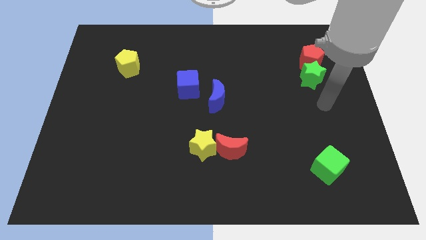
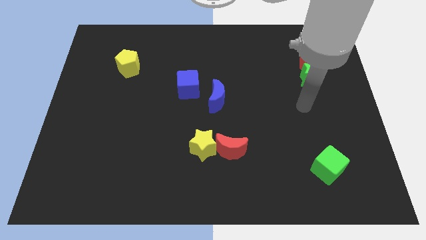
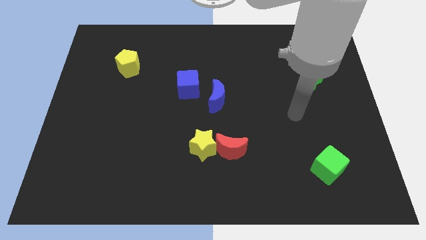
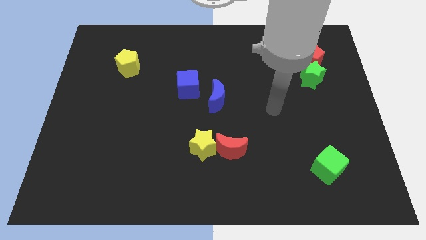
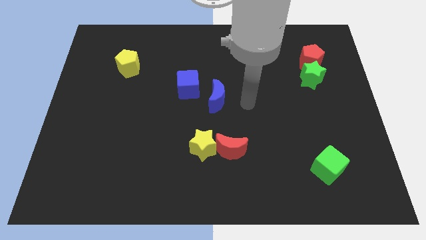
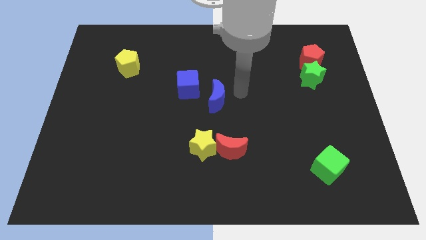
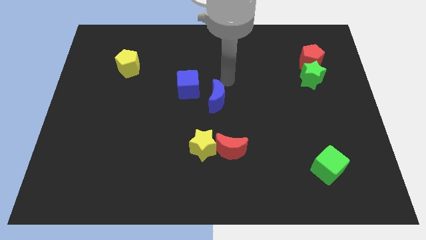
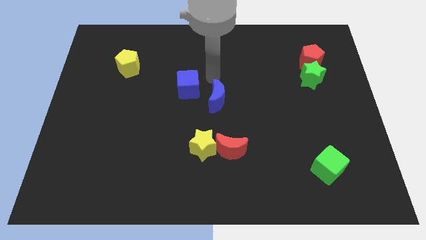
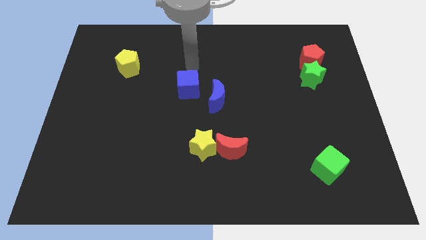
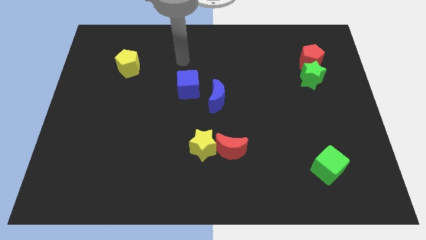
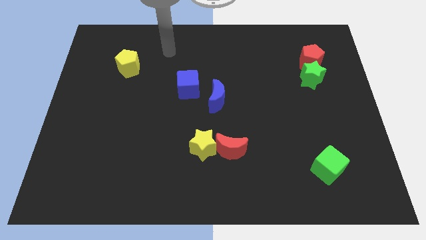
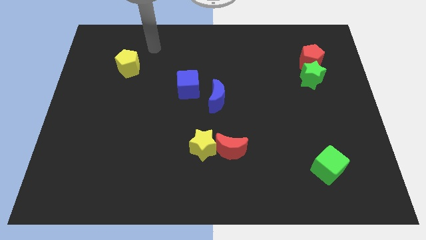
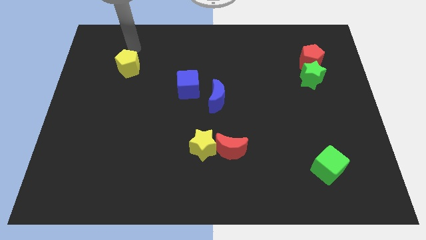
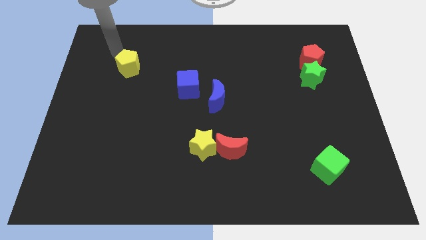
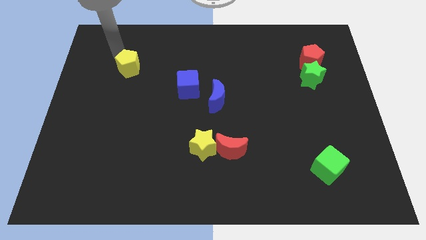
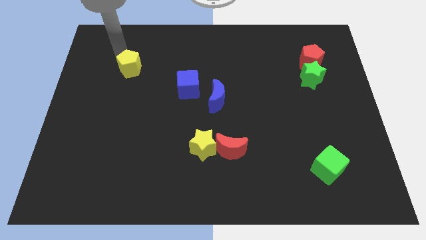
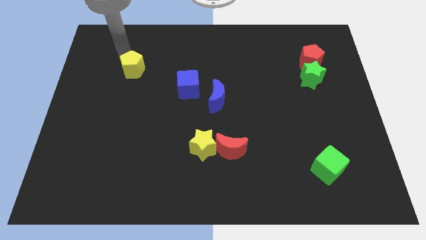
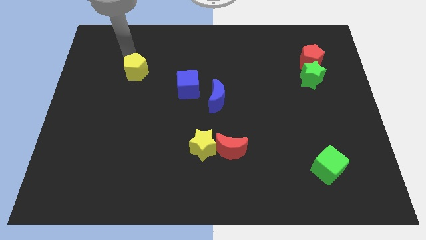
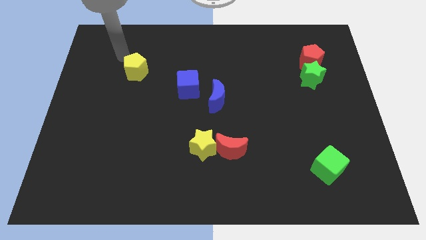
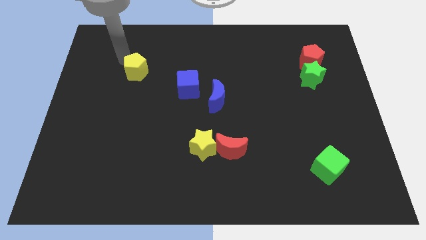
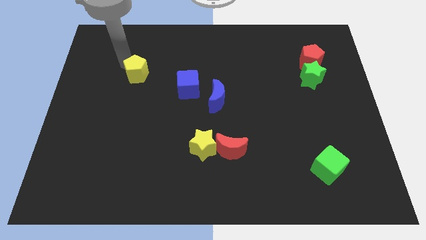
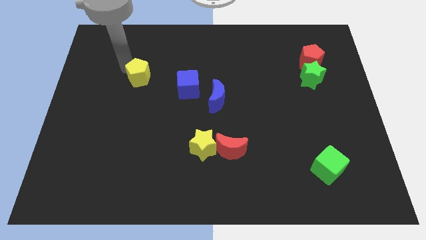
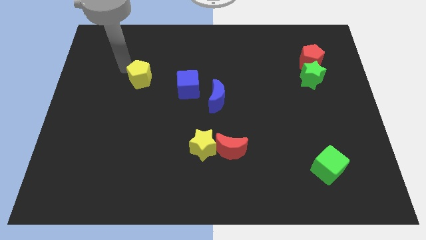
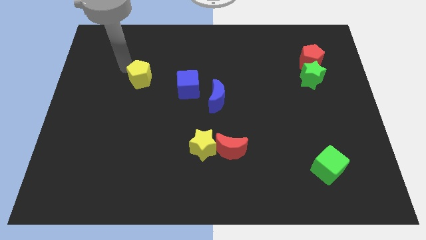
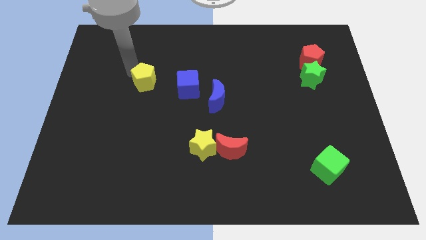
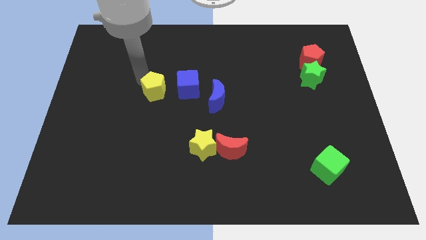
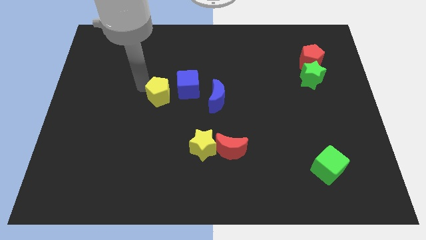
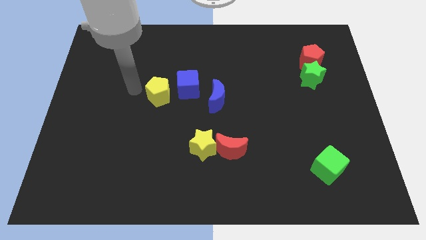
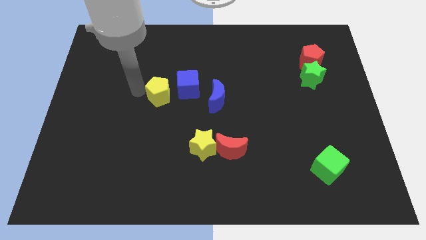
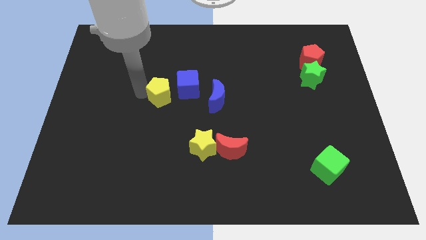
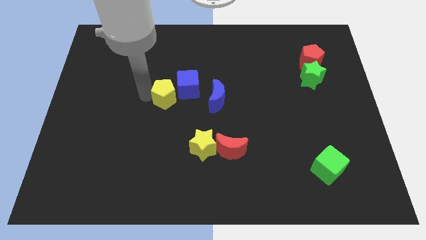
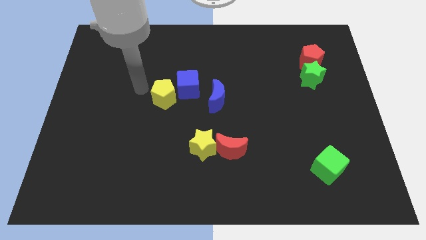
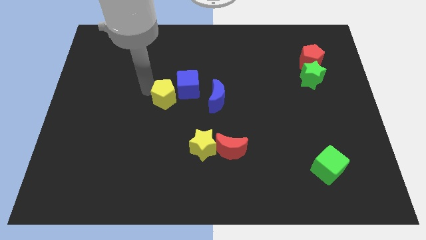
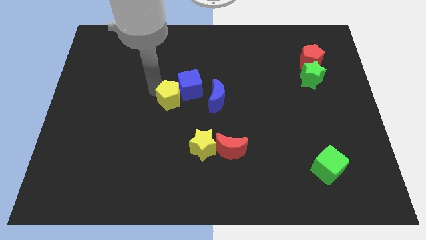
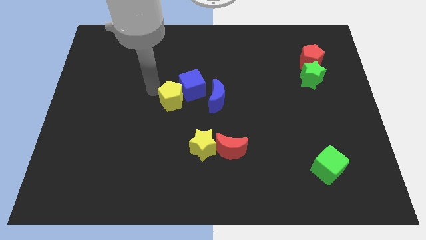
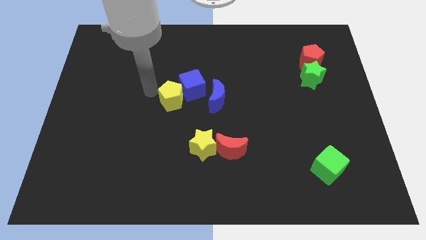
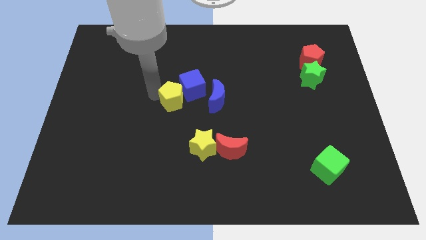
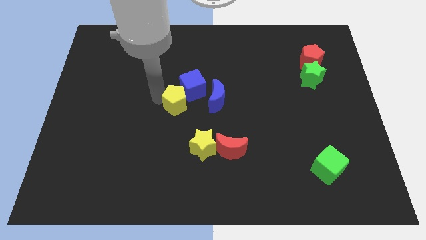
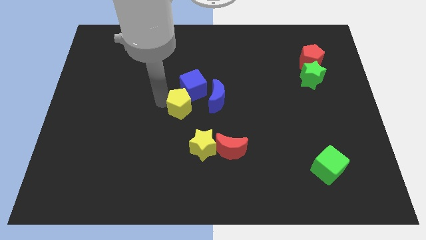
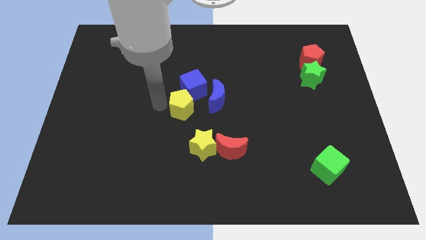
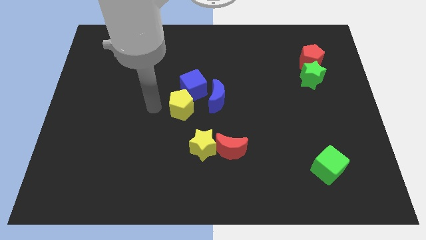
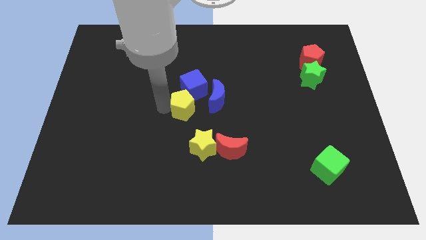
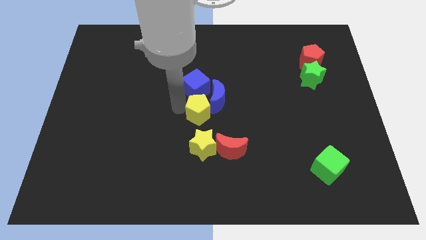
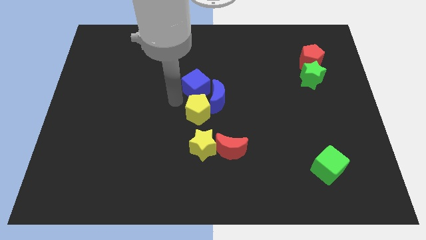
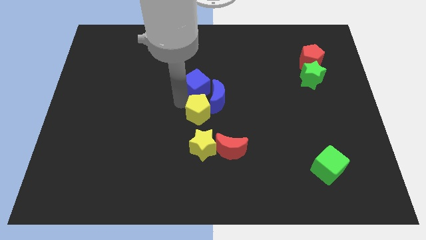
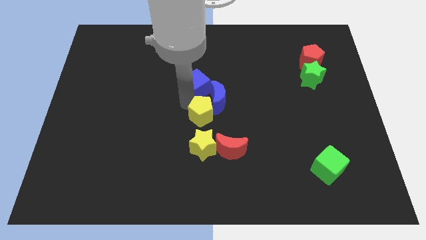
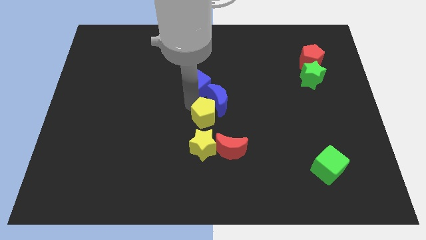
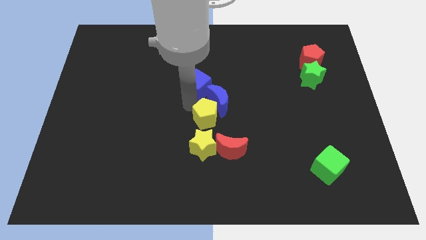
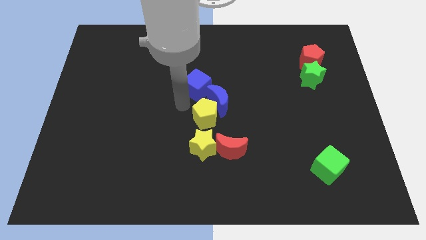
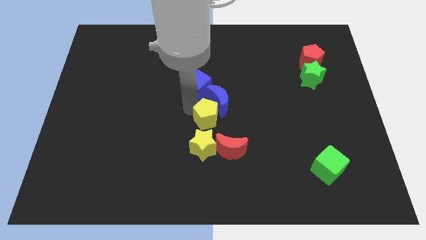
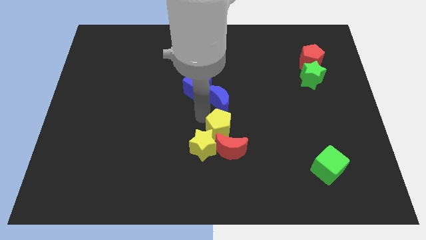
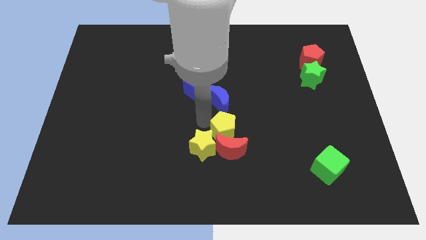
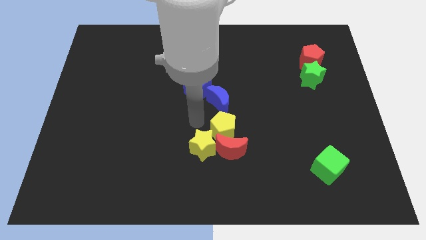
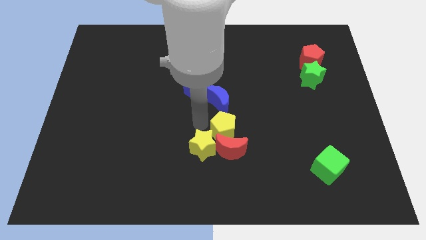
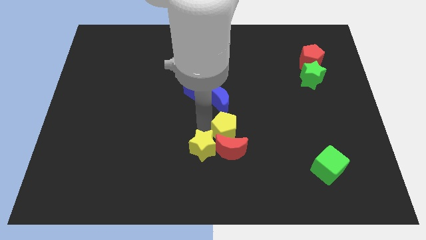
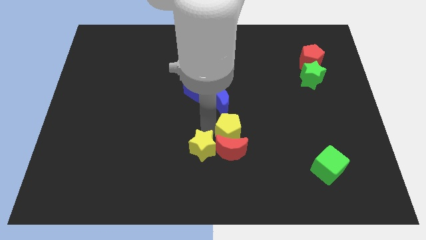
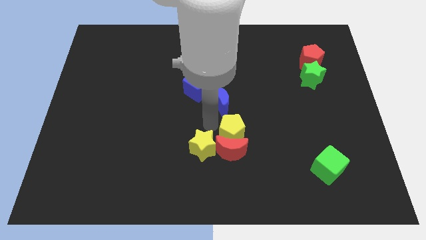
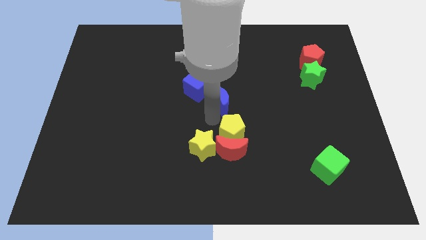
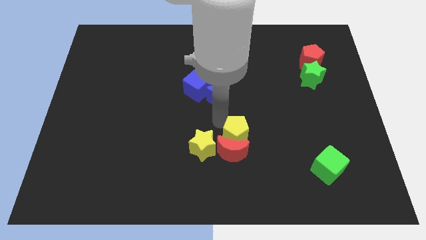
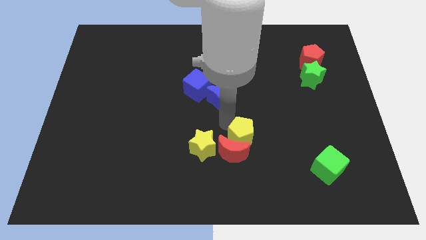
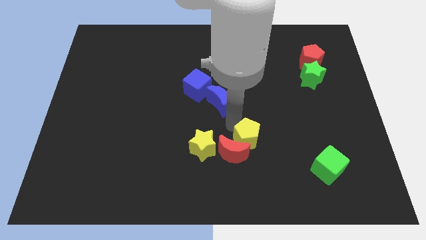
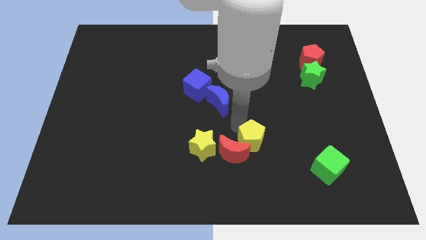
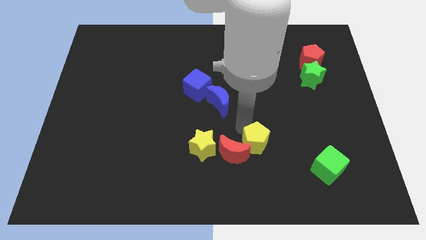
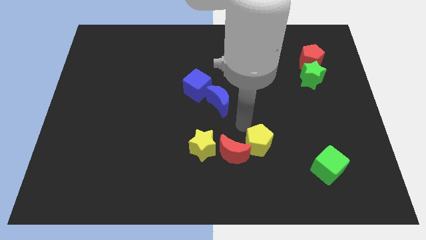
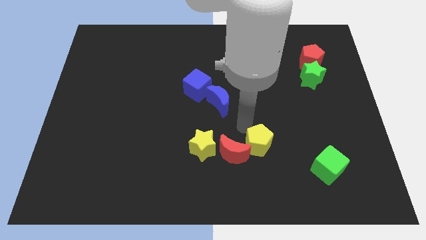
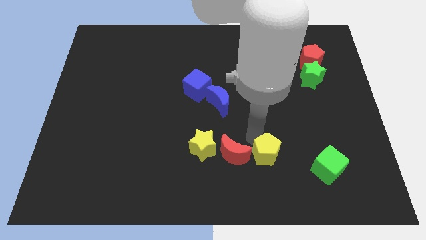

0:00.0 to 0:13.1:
slide the yellow pentagon to the left side of the green cube

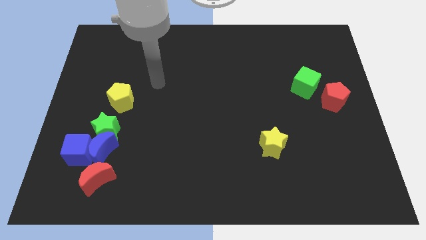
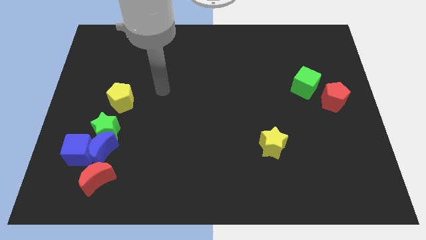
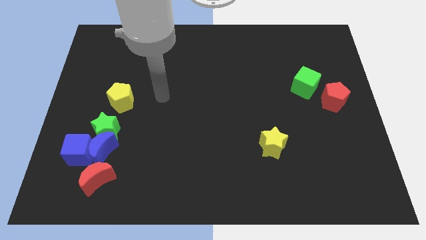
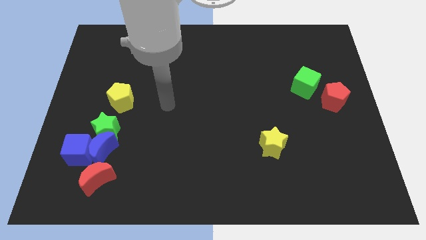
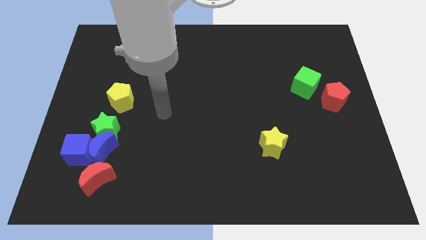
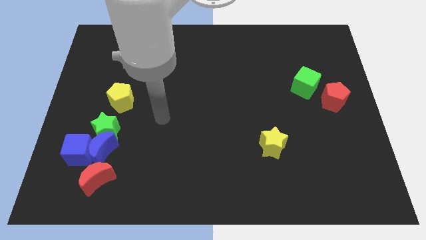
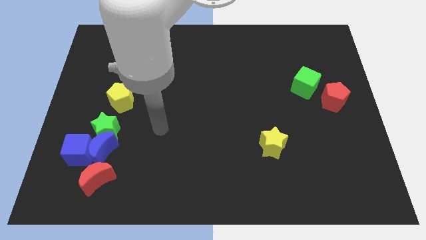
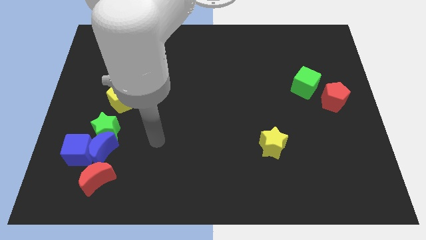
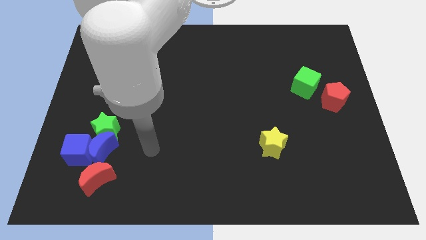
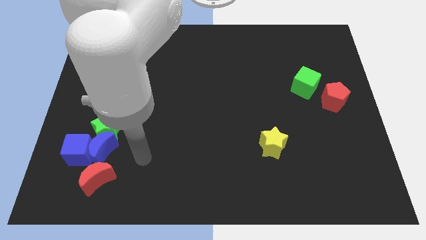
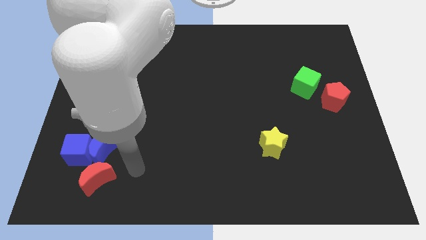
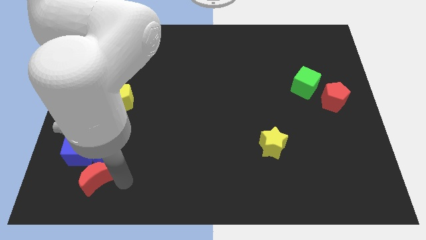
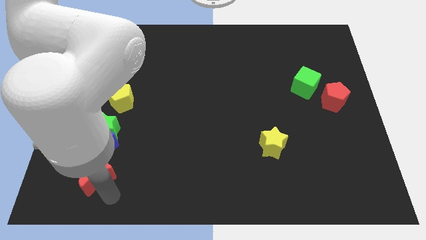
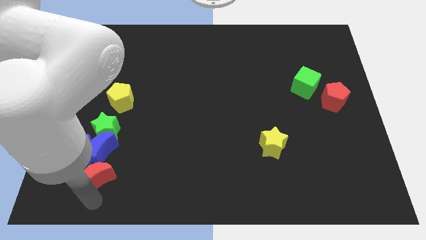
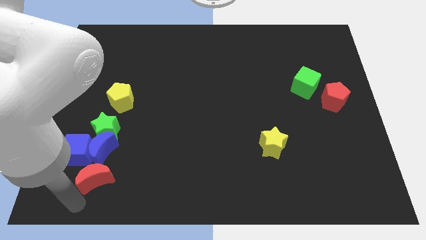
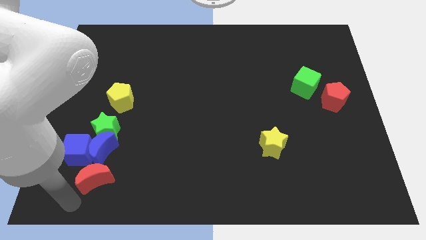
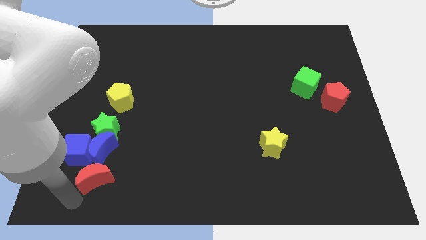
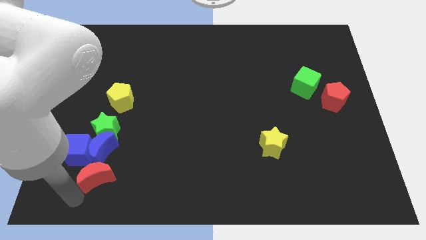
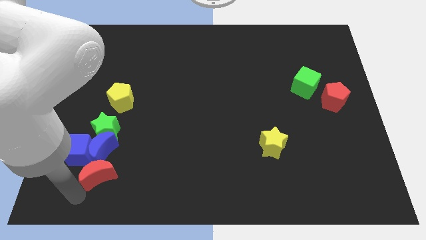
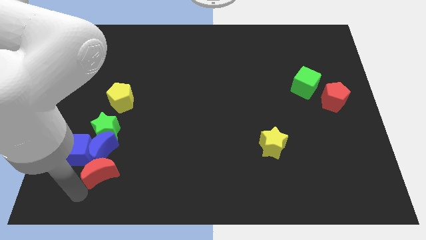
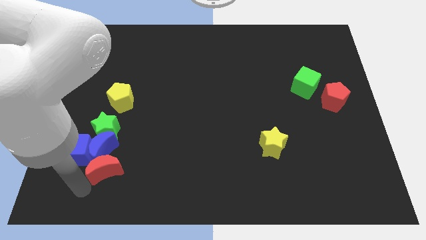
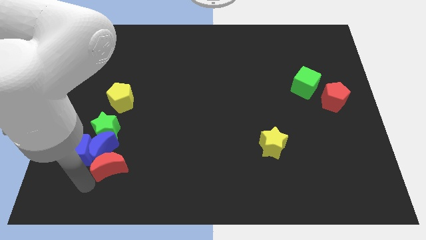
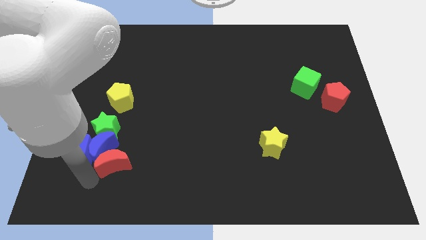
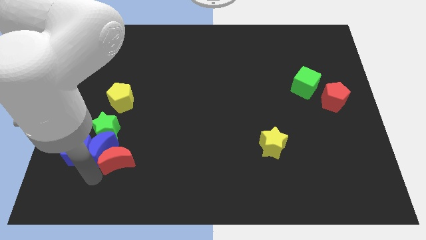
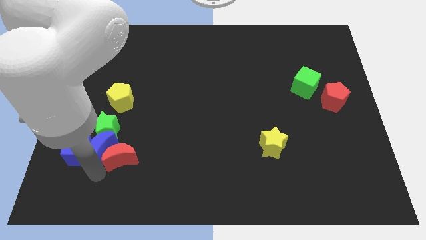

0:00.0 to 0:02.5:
move the red moon to the top right of the blue moon
